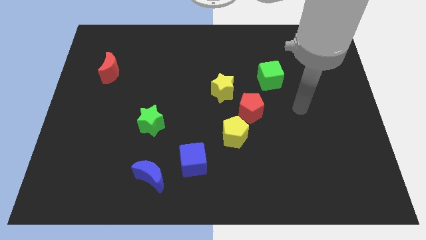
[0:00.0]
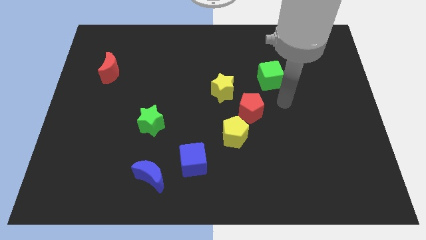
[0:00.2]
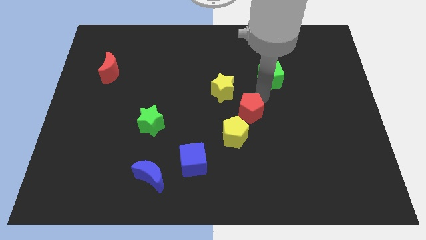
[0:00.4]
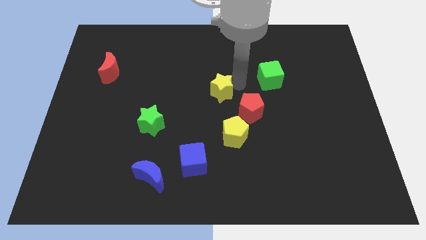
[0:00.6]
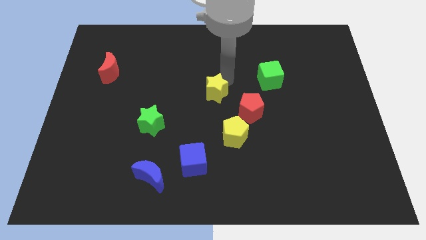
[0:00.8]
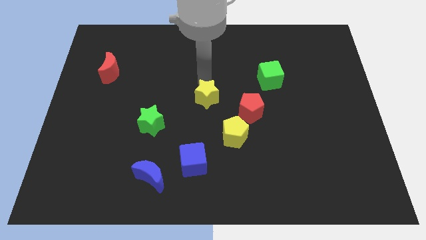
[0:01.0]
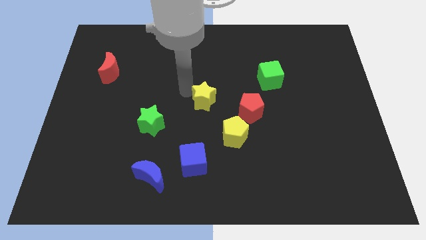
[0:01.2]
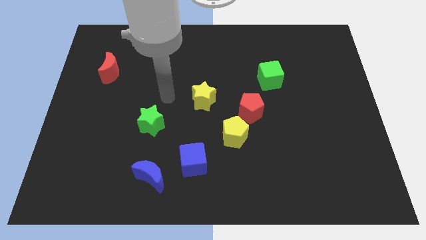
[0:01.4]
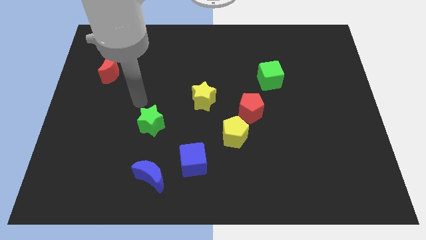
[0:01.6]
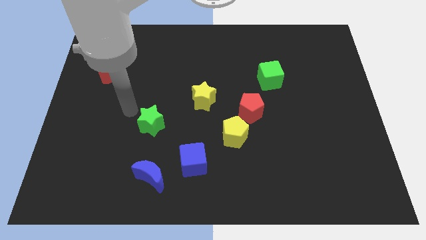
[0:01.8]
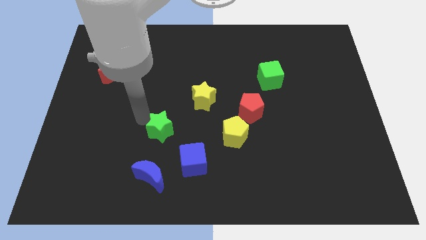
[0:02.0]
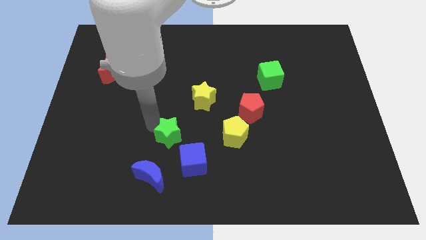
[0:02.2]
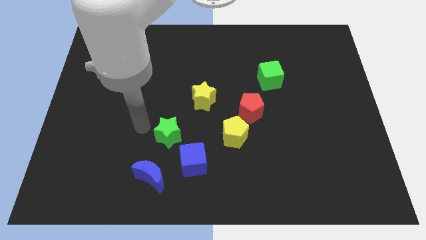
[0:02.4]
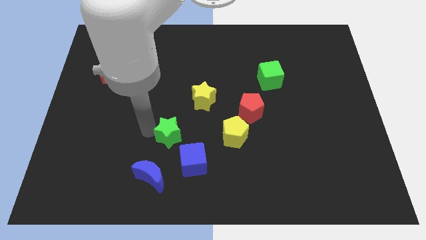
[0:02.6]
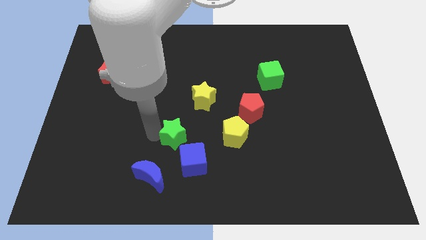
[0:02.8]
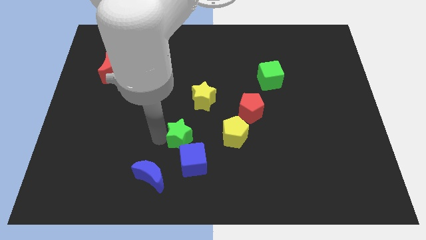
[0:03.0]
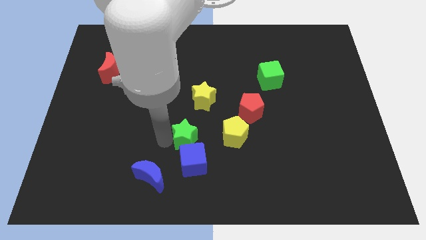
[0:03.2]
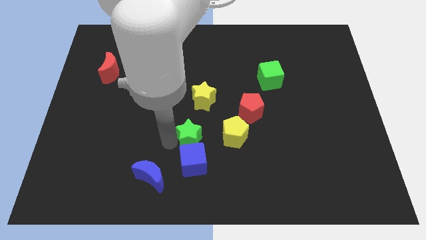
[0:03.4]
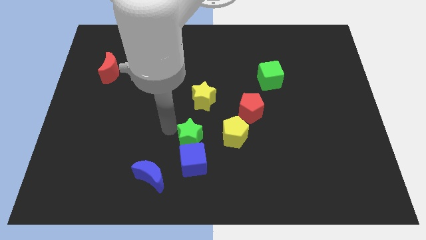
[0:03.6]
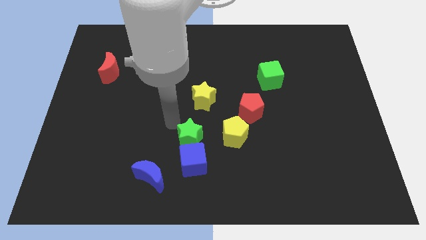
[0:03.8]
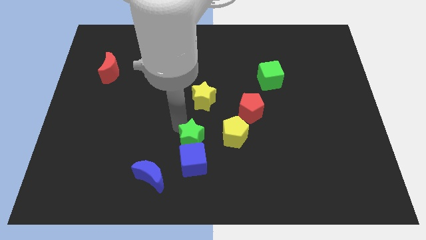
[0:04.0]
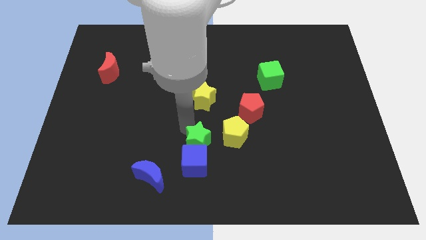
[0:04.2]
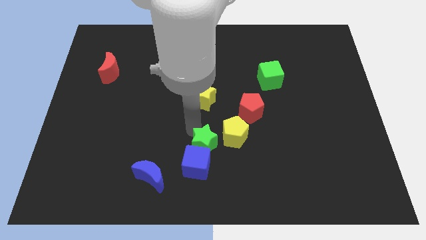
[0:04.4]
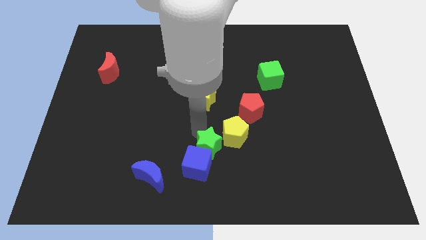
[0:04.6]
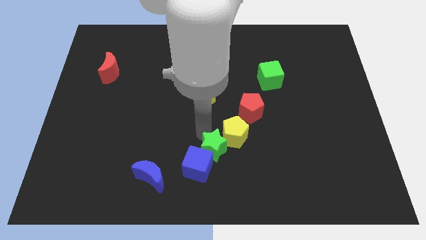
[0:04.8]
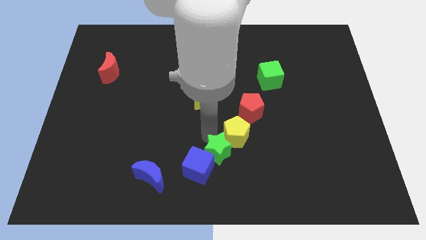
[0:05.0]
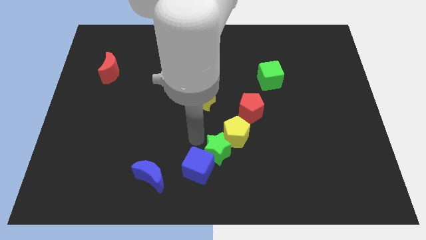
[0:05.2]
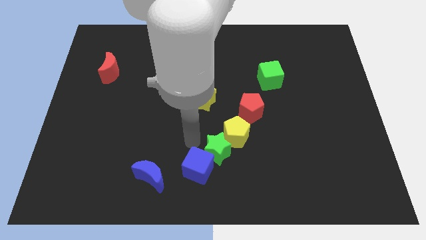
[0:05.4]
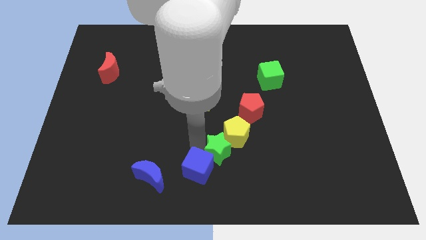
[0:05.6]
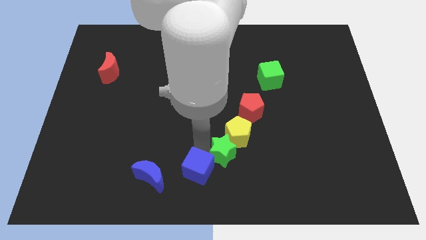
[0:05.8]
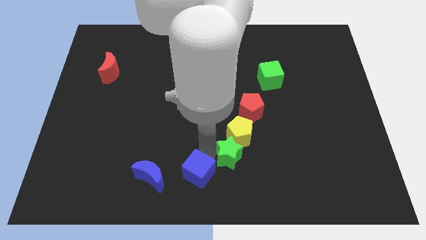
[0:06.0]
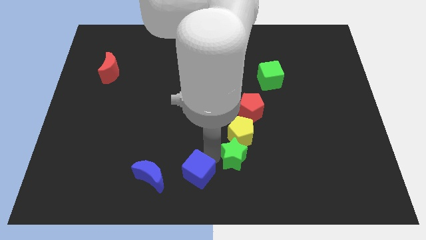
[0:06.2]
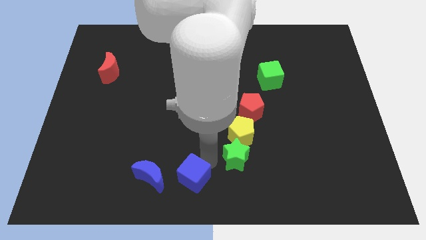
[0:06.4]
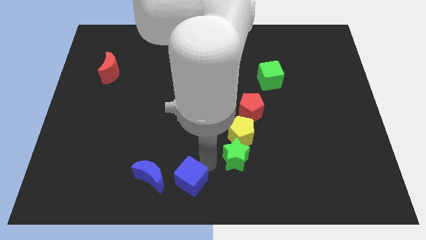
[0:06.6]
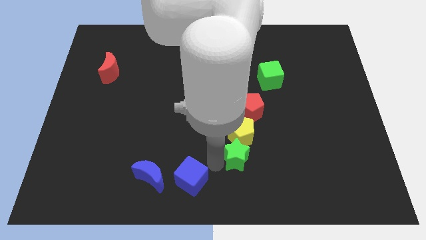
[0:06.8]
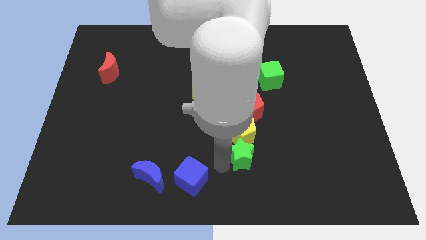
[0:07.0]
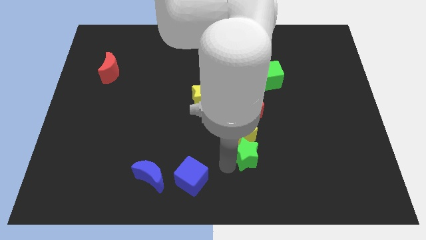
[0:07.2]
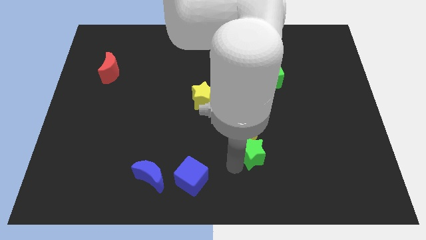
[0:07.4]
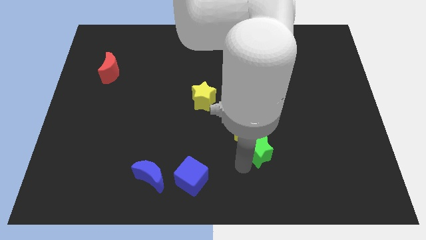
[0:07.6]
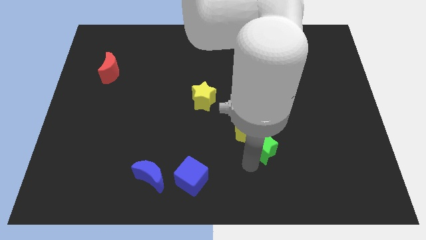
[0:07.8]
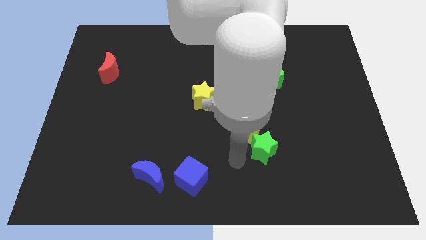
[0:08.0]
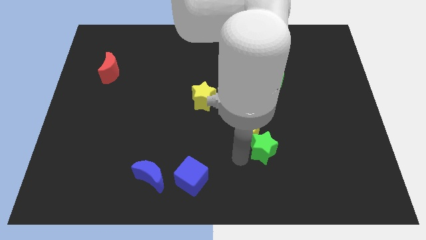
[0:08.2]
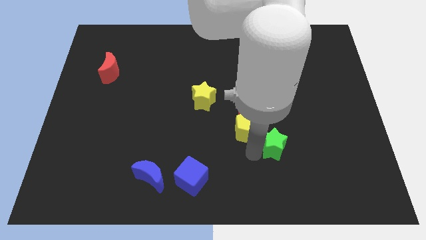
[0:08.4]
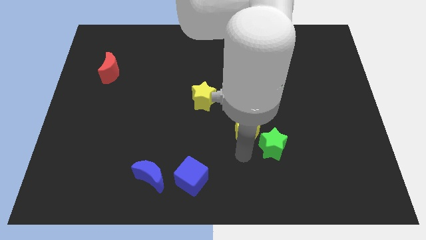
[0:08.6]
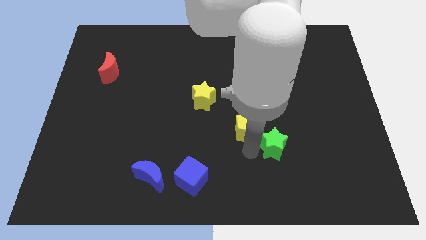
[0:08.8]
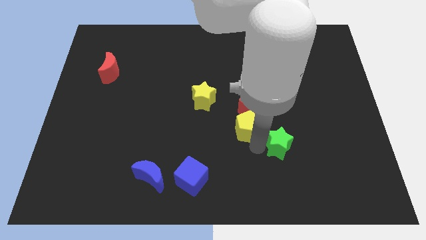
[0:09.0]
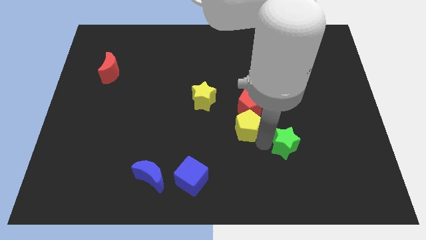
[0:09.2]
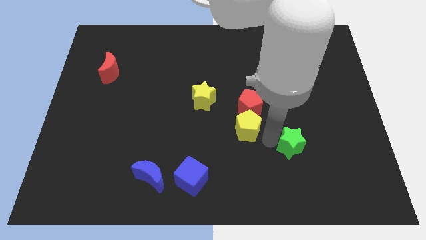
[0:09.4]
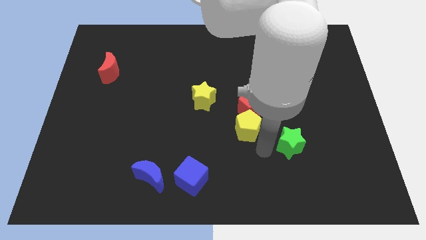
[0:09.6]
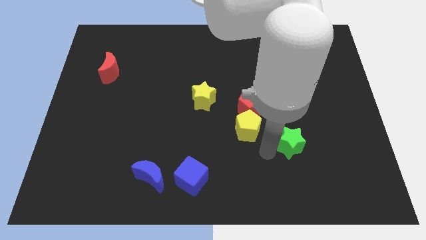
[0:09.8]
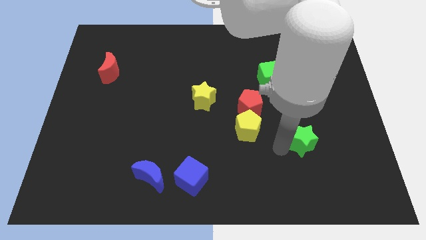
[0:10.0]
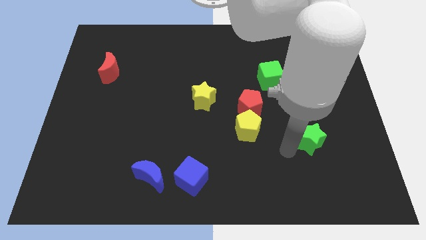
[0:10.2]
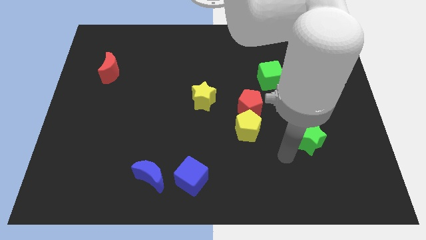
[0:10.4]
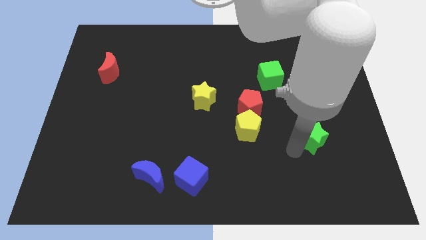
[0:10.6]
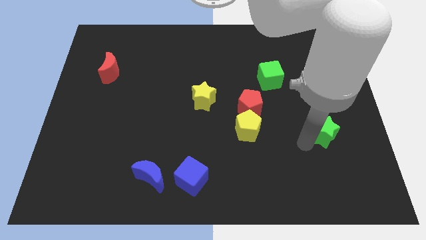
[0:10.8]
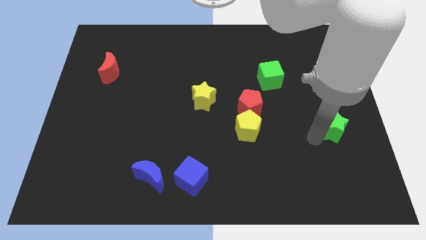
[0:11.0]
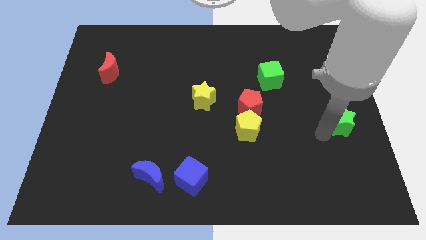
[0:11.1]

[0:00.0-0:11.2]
slide the green star to the right side of the board

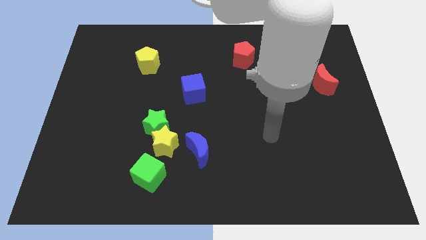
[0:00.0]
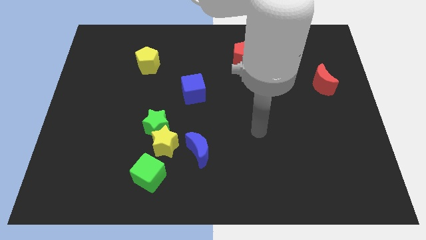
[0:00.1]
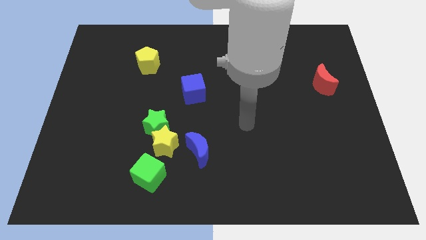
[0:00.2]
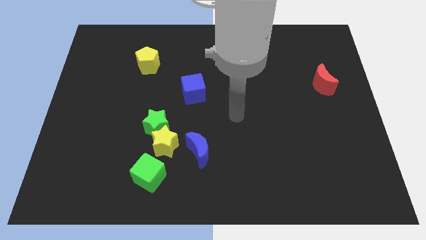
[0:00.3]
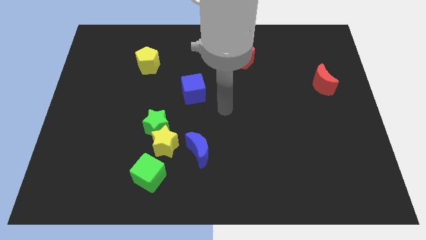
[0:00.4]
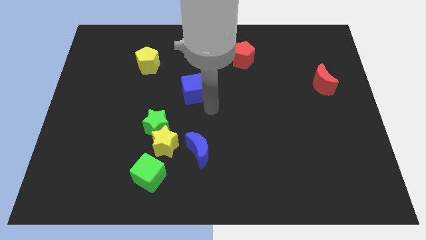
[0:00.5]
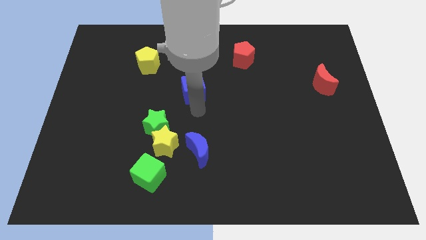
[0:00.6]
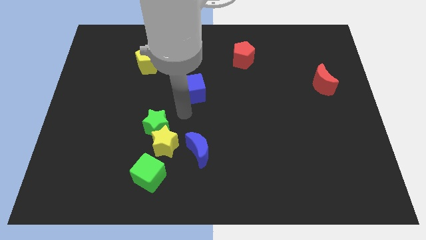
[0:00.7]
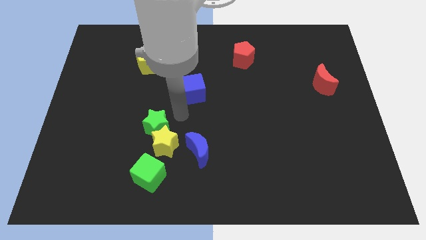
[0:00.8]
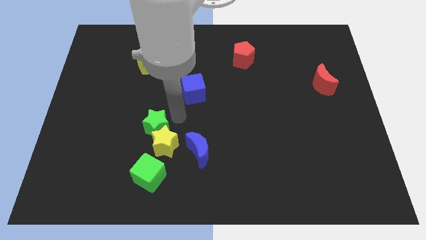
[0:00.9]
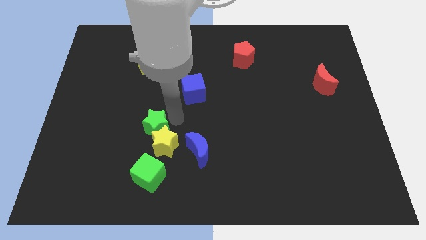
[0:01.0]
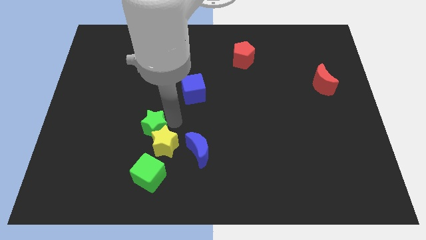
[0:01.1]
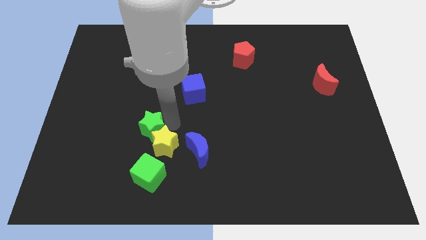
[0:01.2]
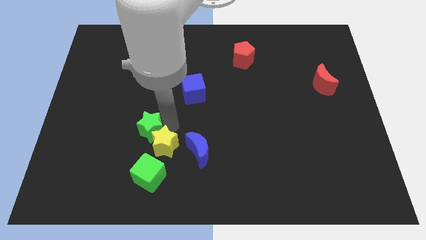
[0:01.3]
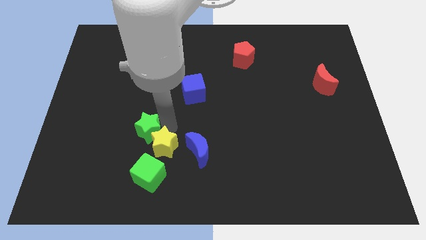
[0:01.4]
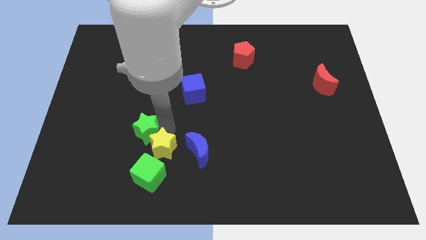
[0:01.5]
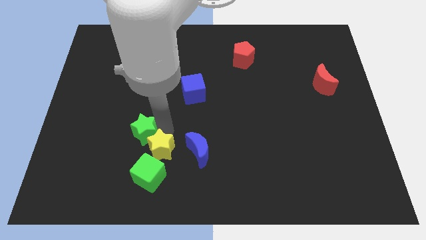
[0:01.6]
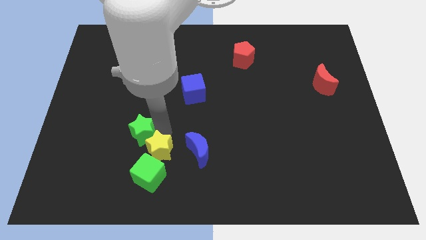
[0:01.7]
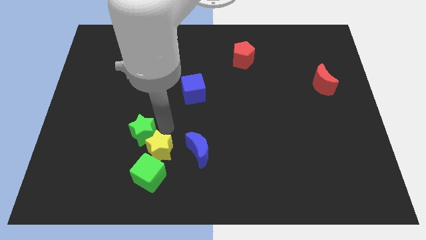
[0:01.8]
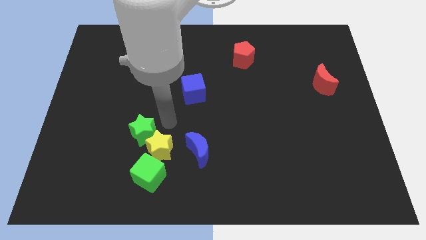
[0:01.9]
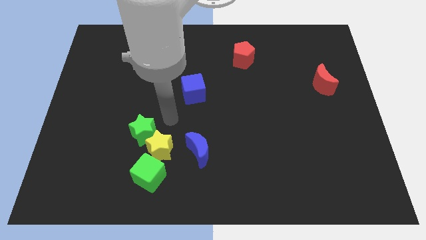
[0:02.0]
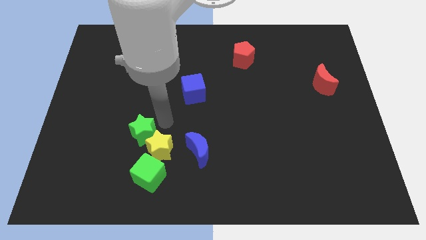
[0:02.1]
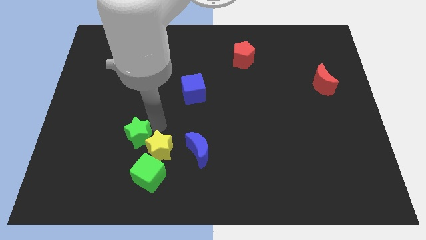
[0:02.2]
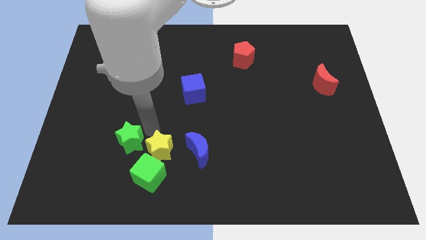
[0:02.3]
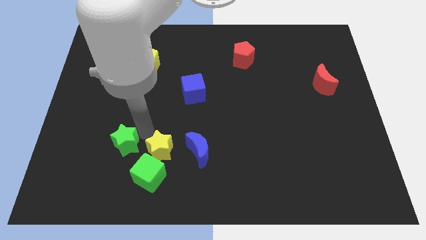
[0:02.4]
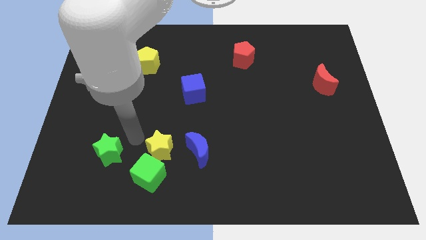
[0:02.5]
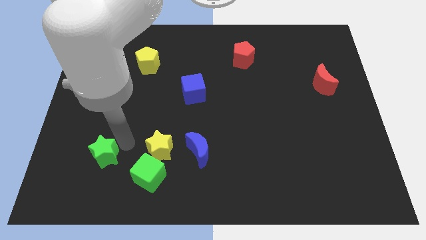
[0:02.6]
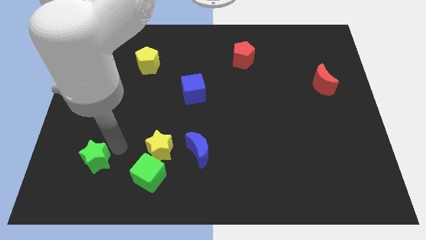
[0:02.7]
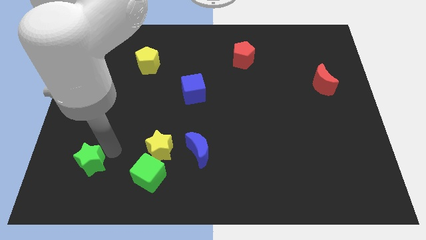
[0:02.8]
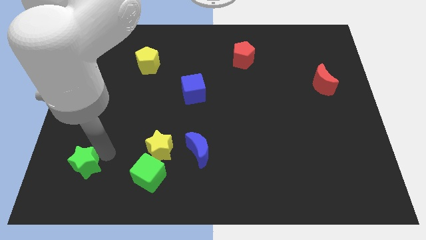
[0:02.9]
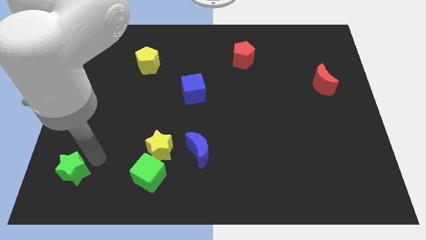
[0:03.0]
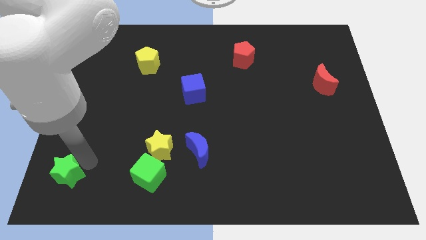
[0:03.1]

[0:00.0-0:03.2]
push the green star to the lower left corner
